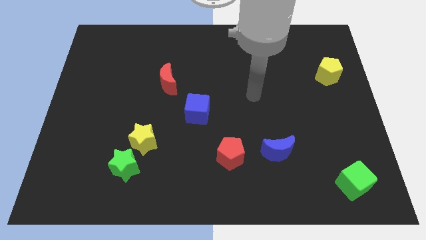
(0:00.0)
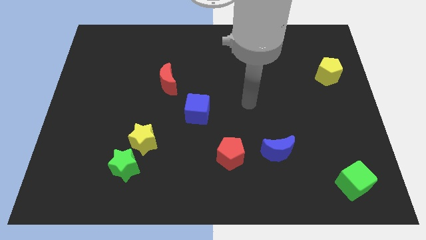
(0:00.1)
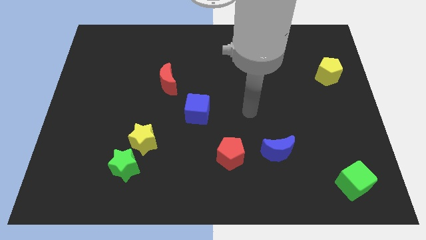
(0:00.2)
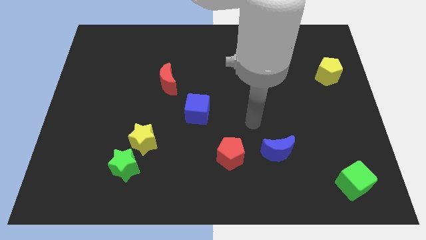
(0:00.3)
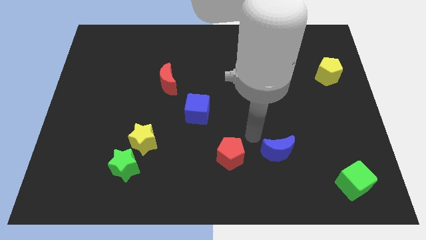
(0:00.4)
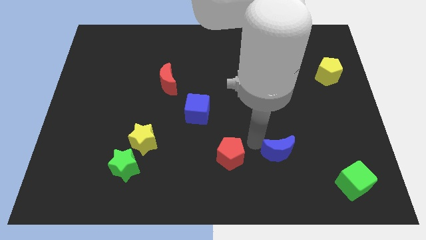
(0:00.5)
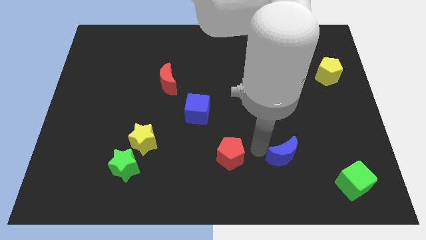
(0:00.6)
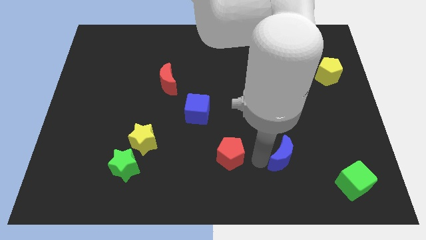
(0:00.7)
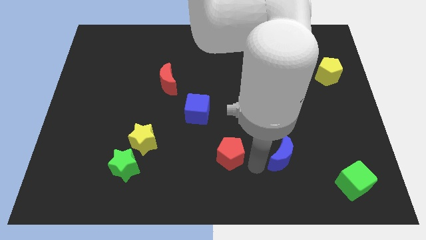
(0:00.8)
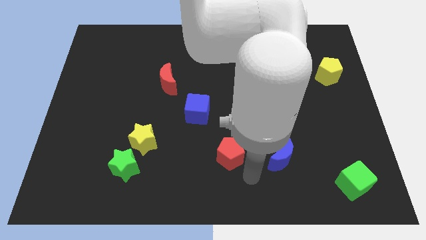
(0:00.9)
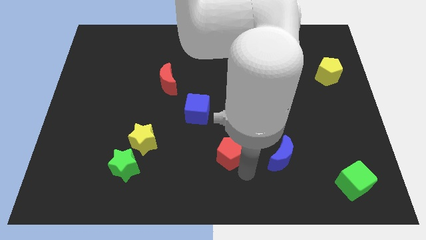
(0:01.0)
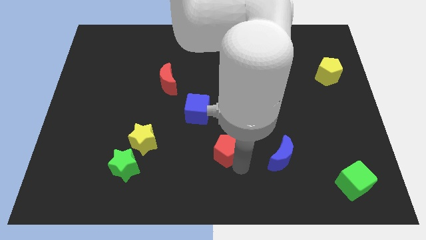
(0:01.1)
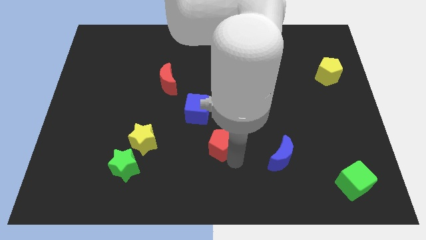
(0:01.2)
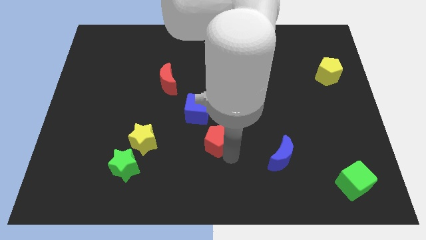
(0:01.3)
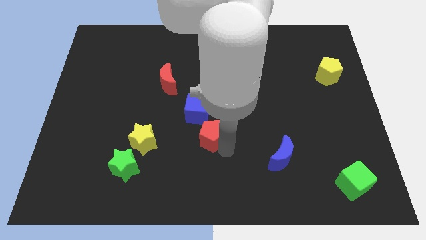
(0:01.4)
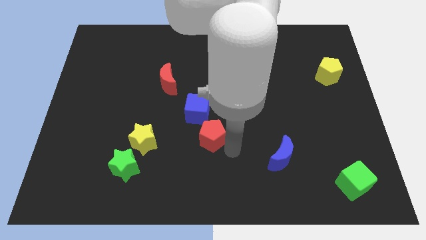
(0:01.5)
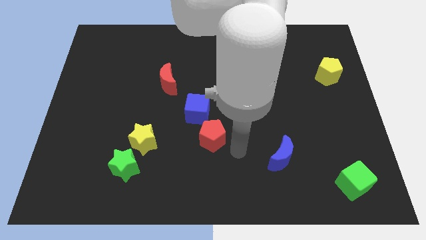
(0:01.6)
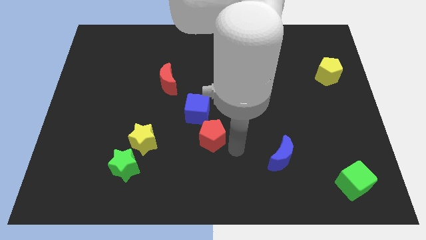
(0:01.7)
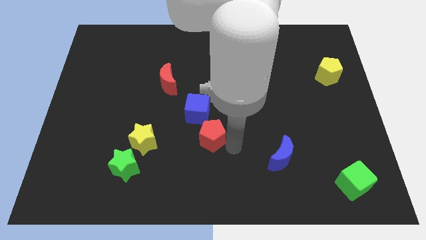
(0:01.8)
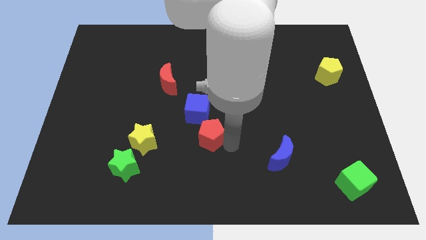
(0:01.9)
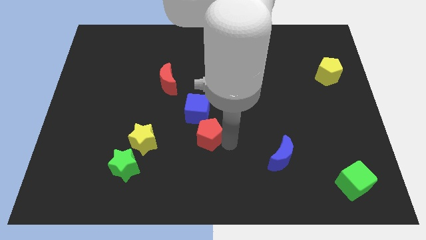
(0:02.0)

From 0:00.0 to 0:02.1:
push the red pentagon slightly diagonally upwards and to the left

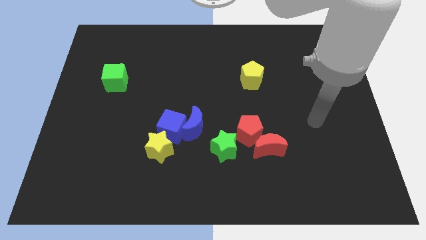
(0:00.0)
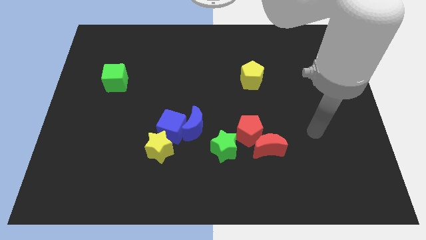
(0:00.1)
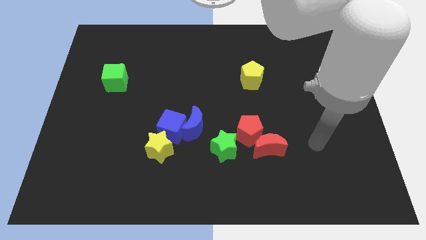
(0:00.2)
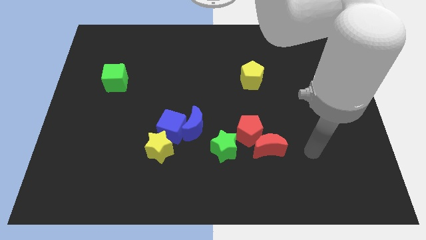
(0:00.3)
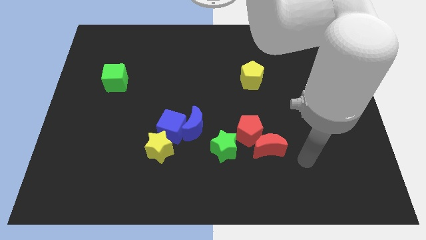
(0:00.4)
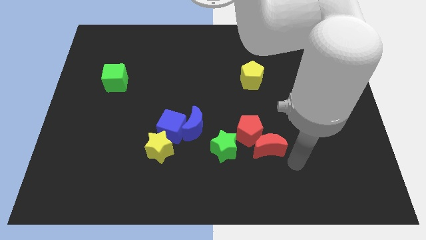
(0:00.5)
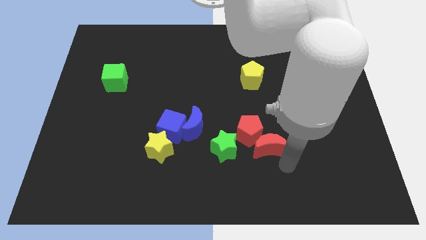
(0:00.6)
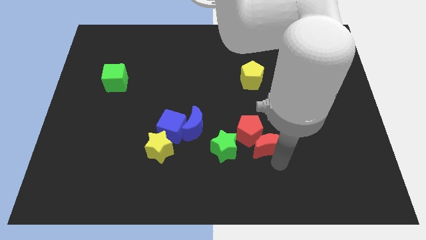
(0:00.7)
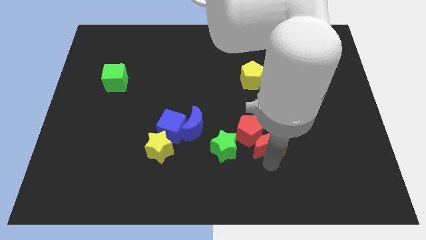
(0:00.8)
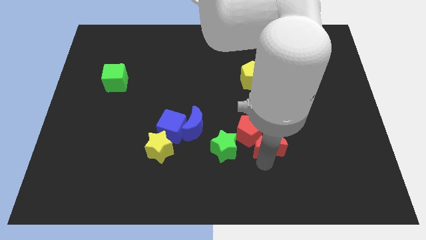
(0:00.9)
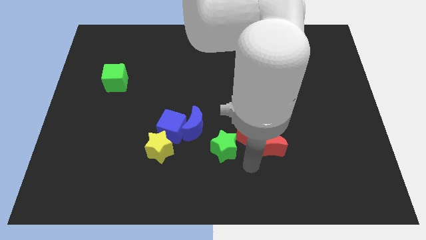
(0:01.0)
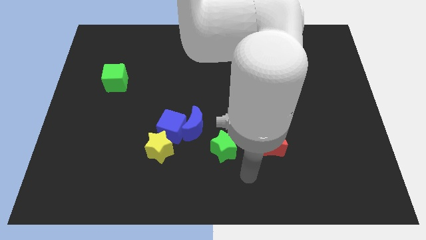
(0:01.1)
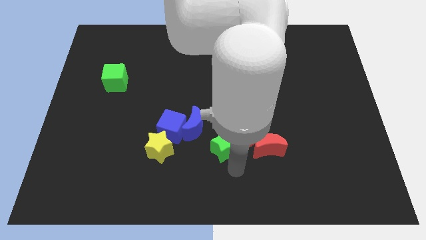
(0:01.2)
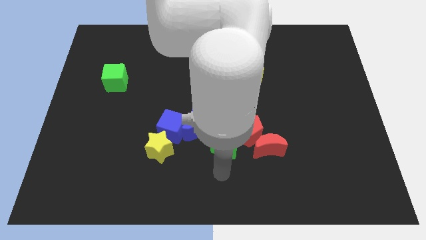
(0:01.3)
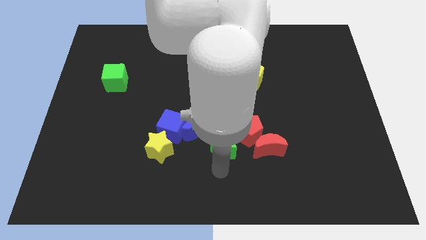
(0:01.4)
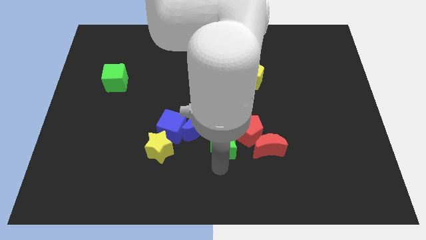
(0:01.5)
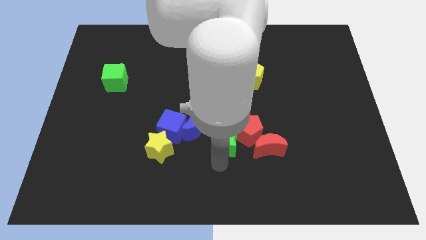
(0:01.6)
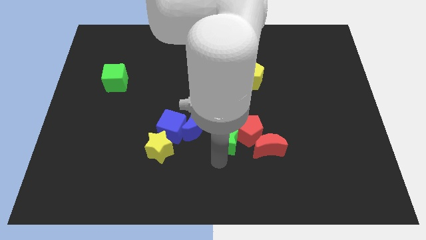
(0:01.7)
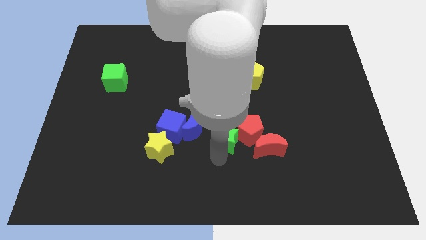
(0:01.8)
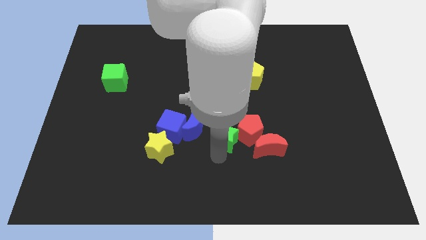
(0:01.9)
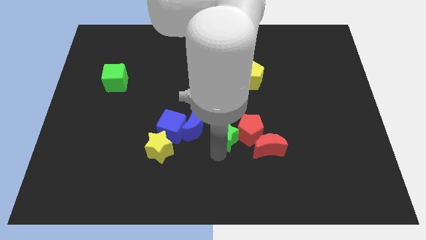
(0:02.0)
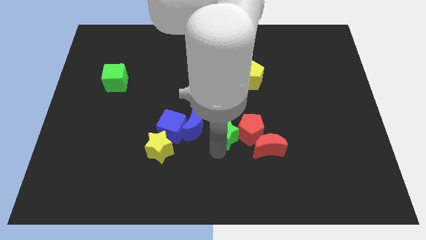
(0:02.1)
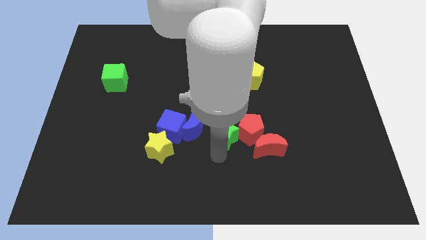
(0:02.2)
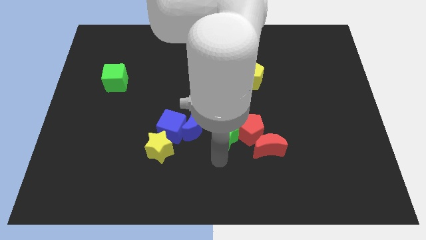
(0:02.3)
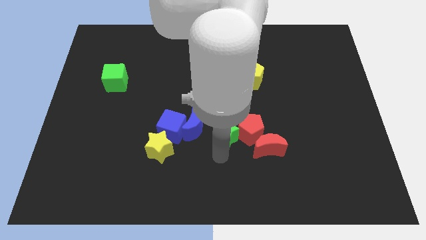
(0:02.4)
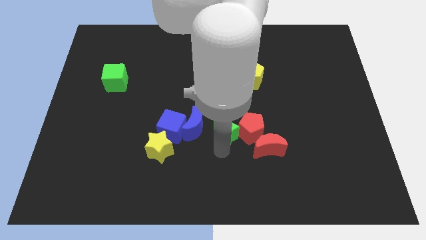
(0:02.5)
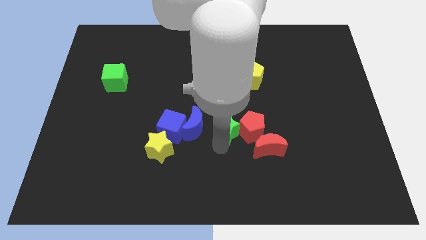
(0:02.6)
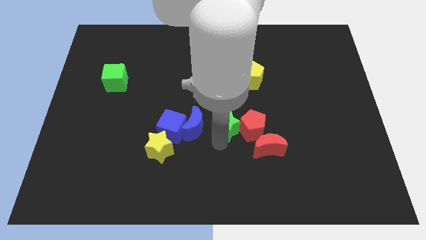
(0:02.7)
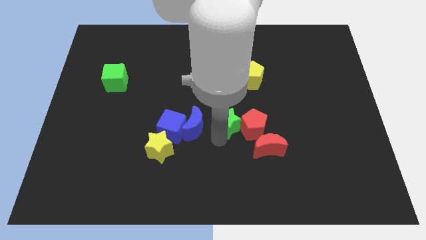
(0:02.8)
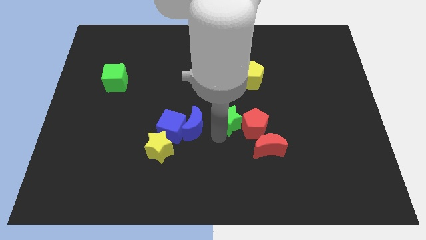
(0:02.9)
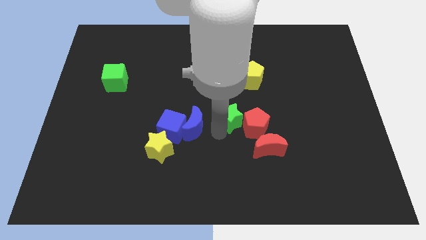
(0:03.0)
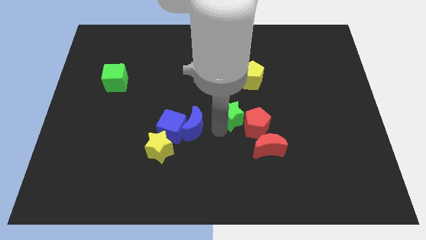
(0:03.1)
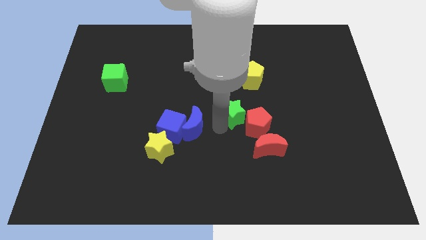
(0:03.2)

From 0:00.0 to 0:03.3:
move the green star somewhat diagonally upwards and right

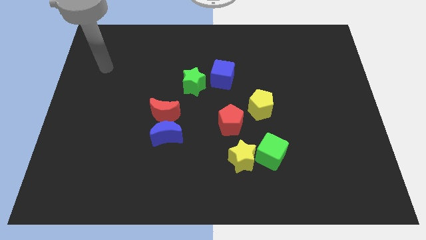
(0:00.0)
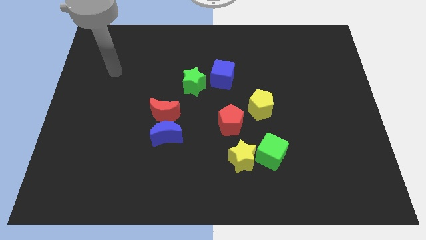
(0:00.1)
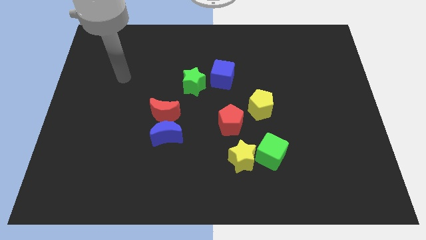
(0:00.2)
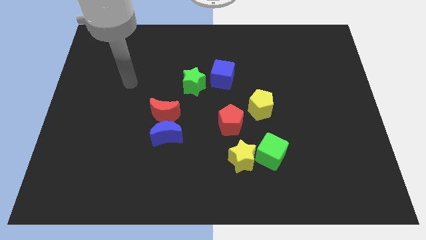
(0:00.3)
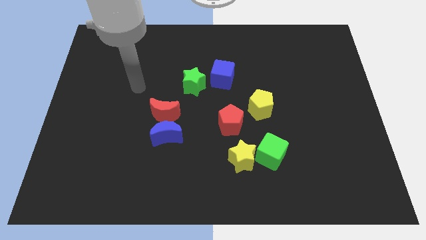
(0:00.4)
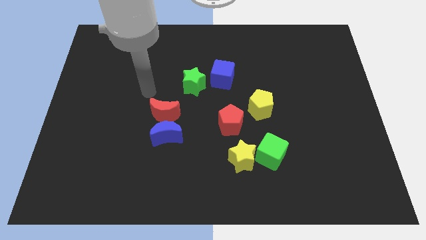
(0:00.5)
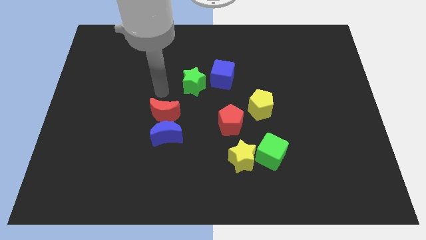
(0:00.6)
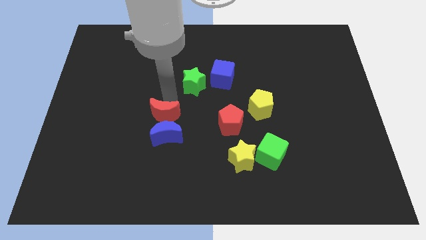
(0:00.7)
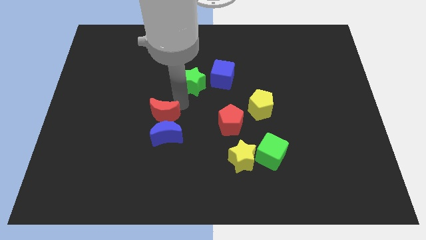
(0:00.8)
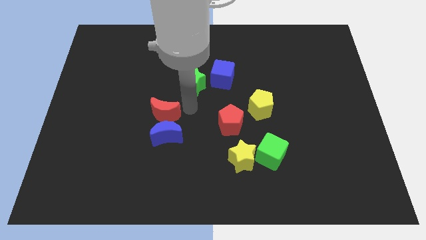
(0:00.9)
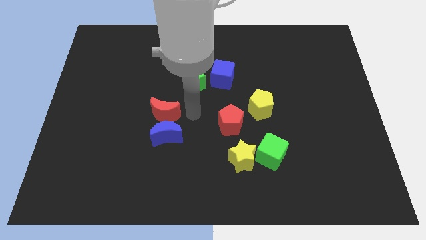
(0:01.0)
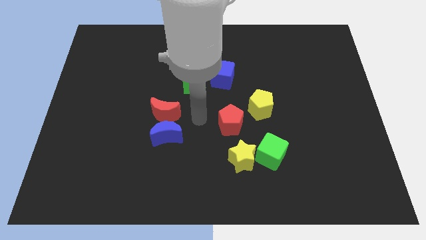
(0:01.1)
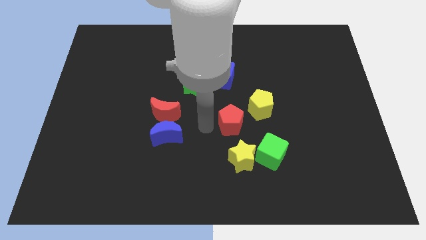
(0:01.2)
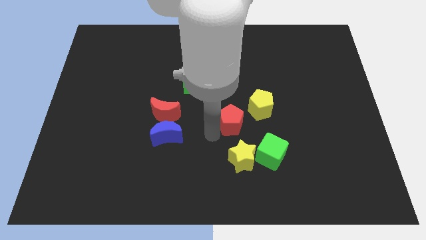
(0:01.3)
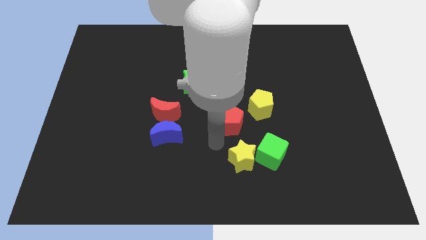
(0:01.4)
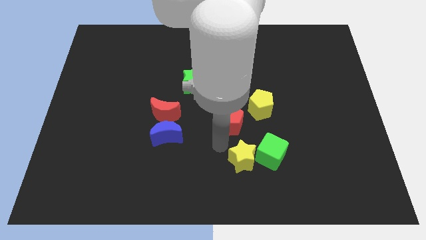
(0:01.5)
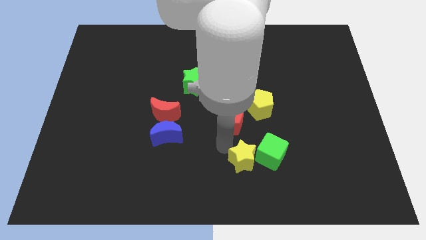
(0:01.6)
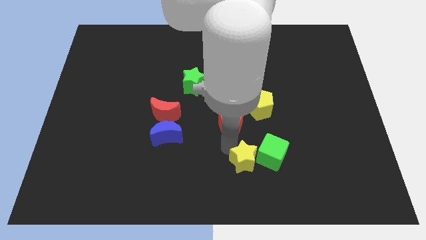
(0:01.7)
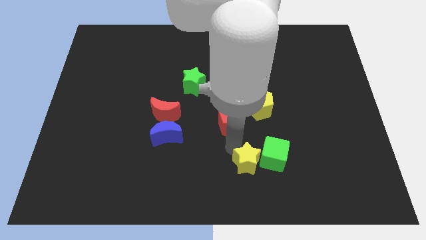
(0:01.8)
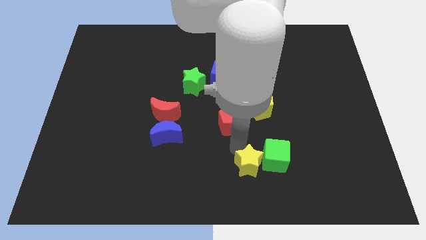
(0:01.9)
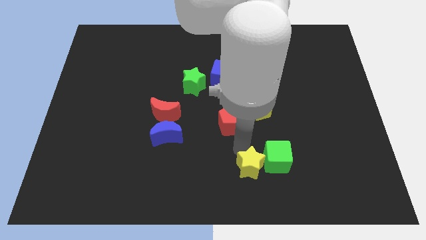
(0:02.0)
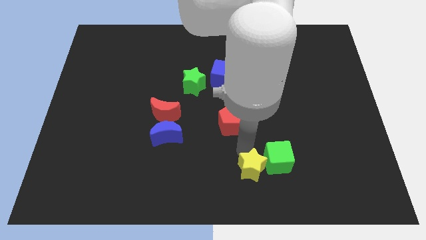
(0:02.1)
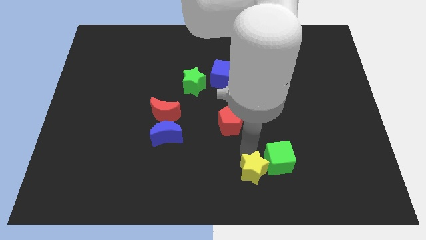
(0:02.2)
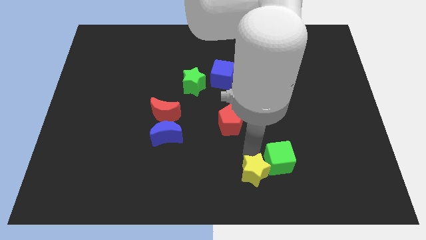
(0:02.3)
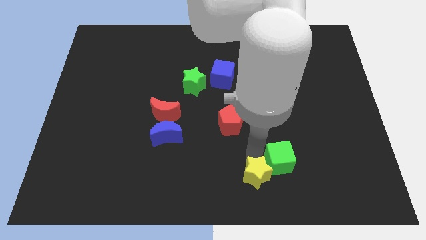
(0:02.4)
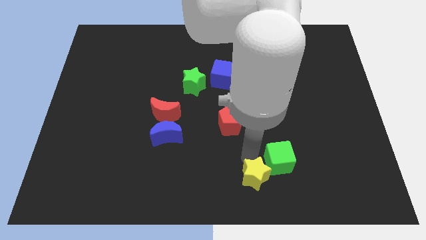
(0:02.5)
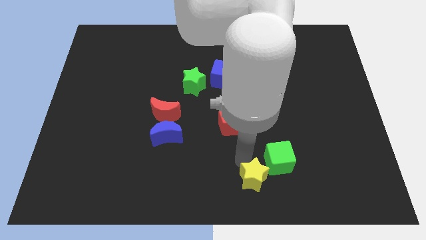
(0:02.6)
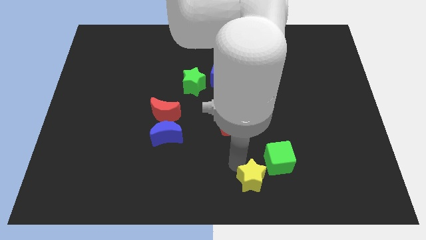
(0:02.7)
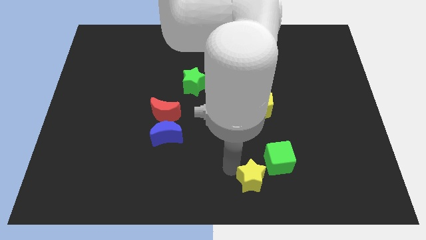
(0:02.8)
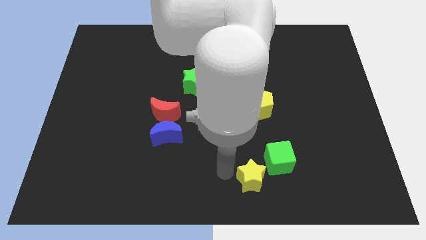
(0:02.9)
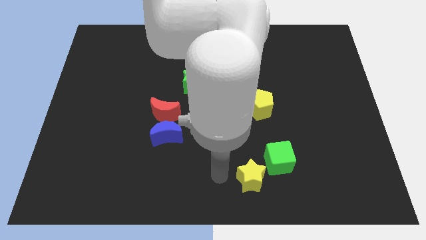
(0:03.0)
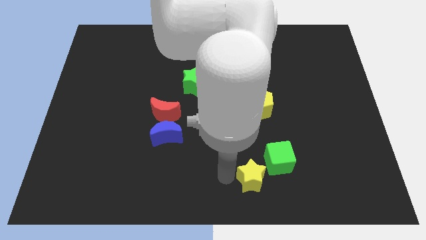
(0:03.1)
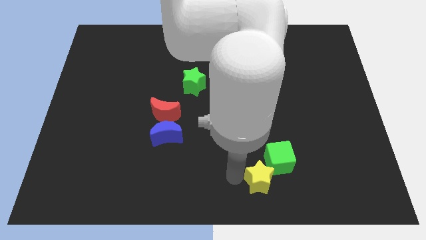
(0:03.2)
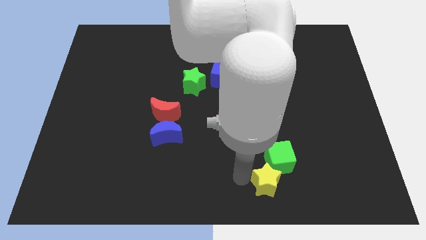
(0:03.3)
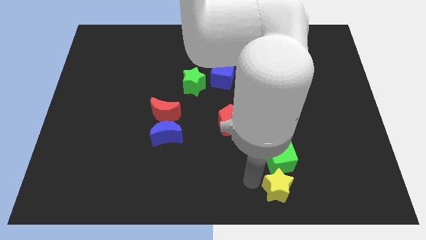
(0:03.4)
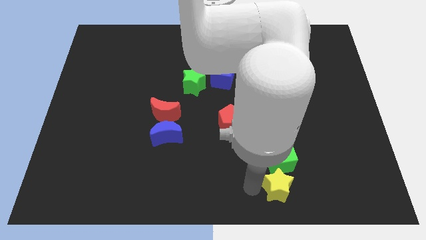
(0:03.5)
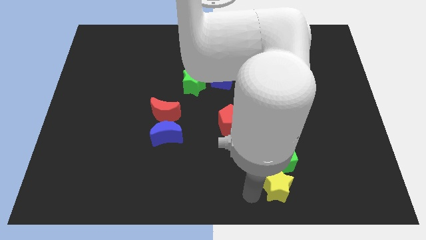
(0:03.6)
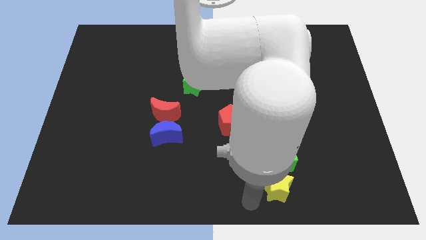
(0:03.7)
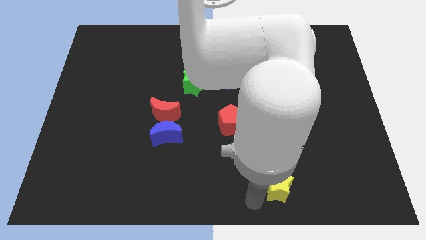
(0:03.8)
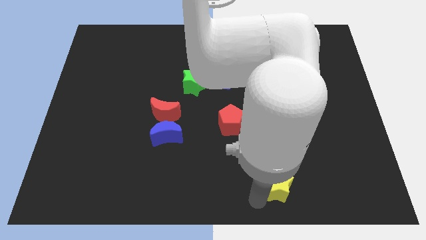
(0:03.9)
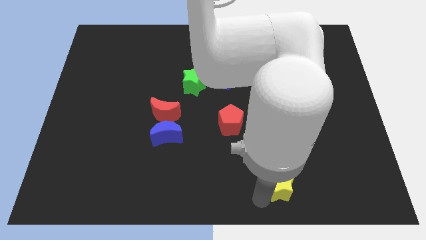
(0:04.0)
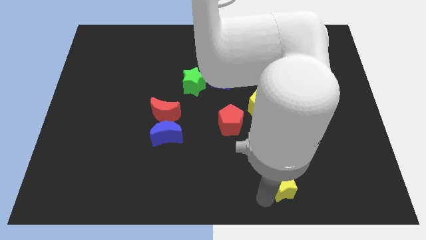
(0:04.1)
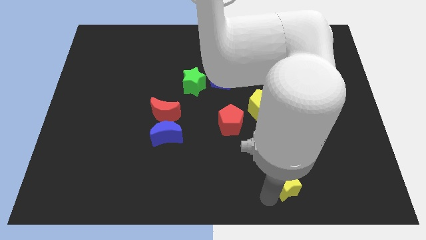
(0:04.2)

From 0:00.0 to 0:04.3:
move the yellow star to the right slightly
